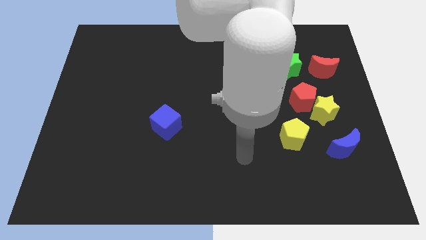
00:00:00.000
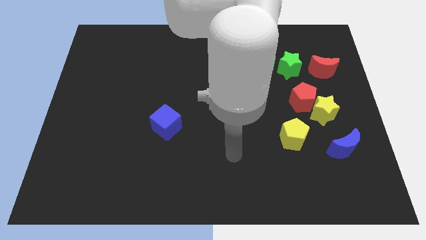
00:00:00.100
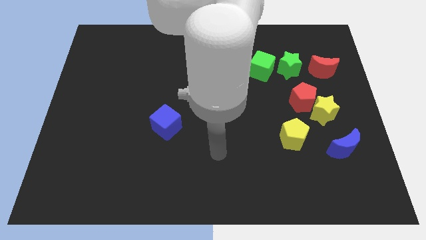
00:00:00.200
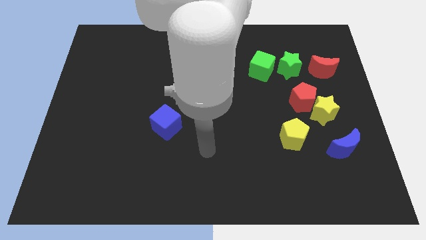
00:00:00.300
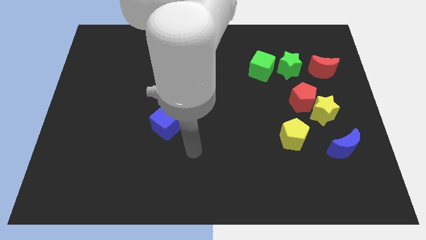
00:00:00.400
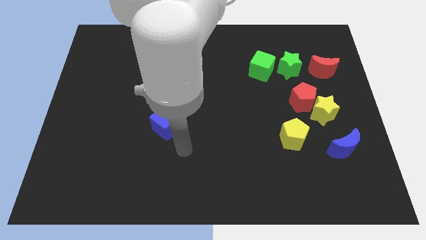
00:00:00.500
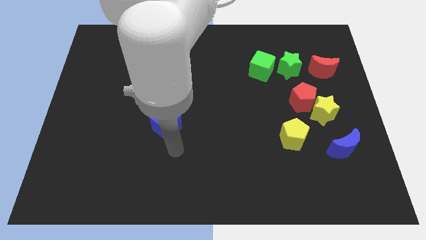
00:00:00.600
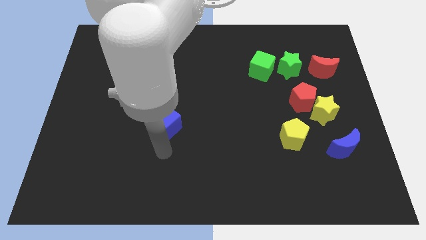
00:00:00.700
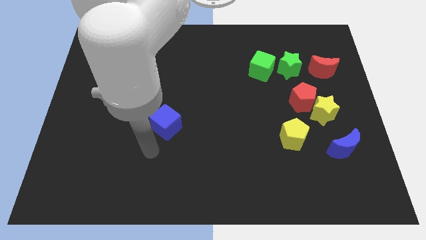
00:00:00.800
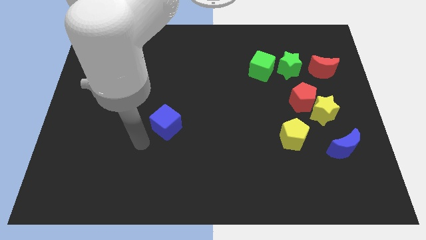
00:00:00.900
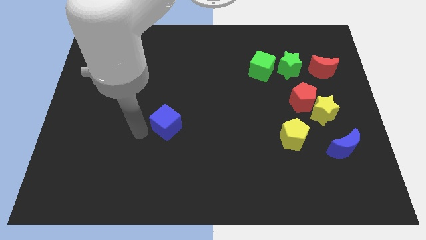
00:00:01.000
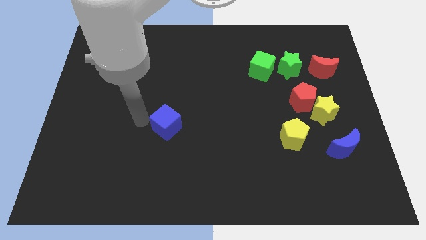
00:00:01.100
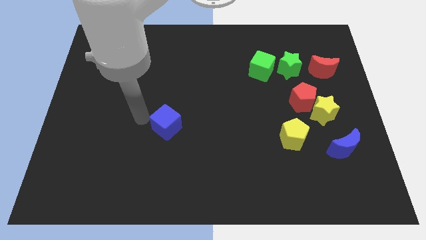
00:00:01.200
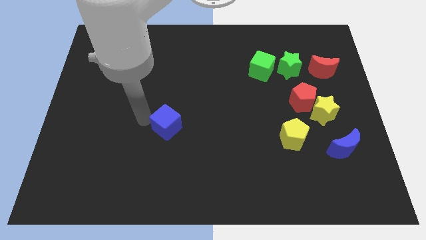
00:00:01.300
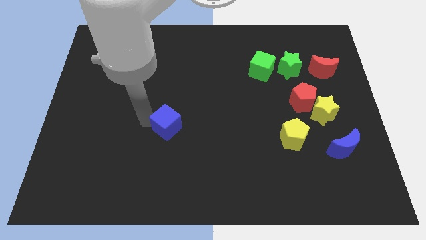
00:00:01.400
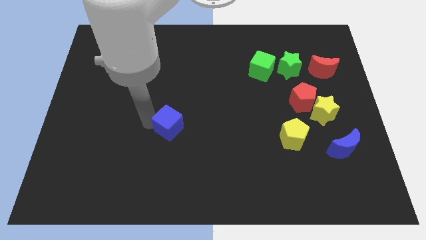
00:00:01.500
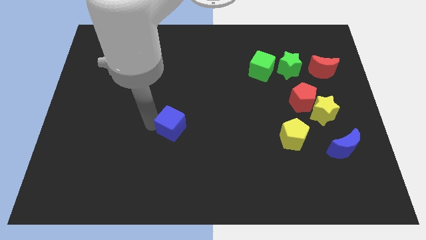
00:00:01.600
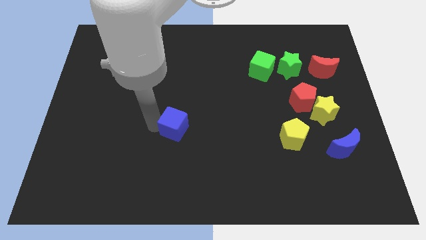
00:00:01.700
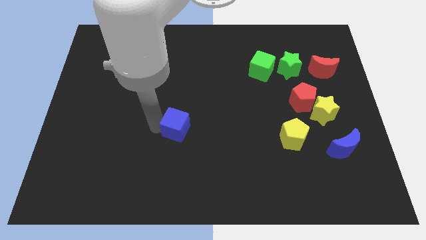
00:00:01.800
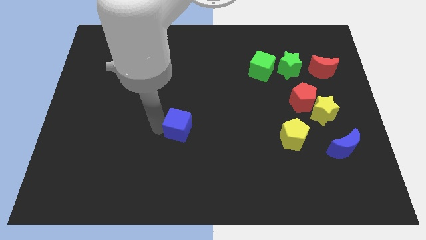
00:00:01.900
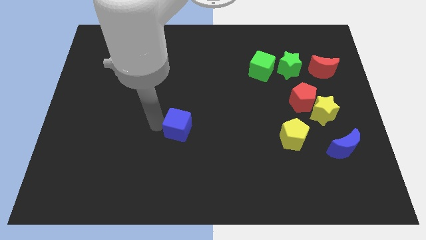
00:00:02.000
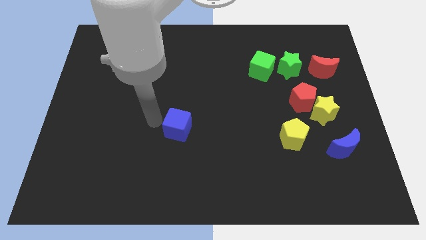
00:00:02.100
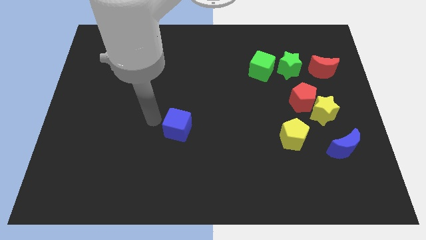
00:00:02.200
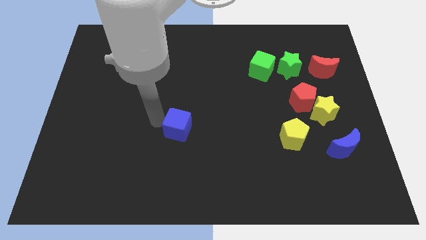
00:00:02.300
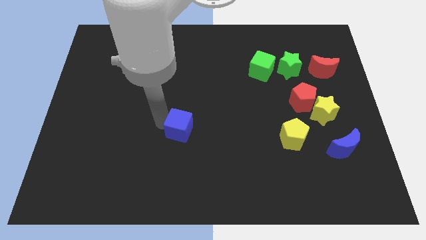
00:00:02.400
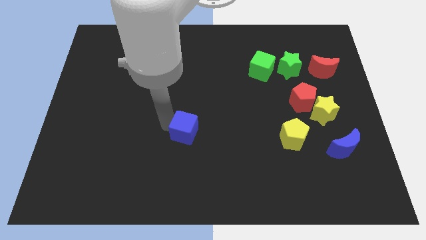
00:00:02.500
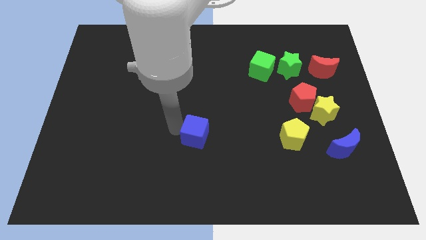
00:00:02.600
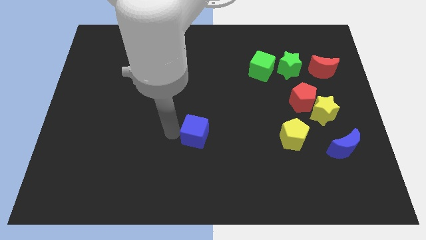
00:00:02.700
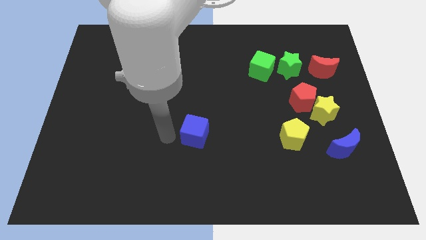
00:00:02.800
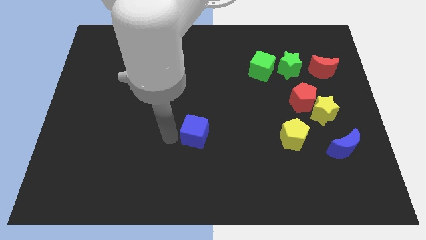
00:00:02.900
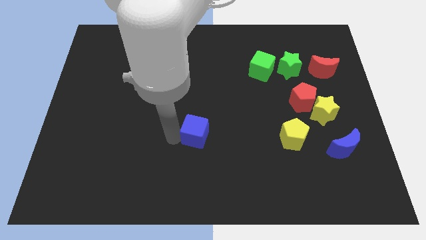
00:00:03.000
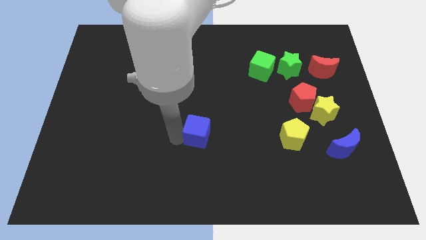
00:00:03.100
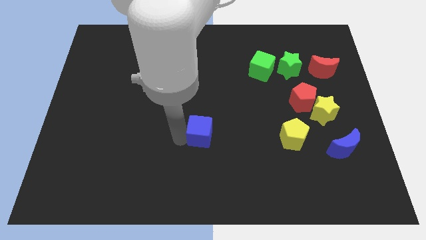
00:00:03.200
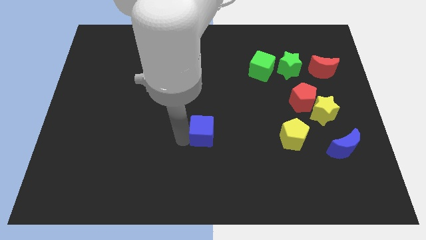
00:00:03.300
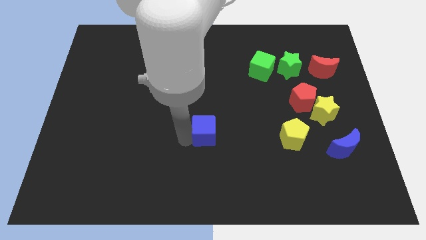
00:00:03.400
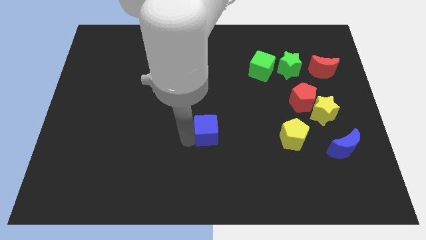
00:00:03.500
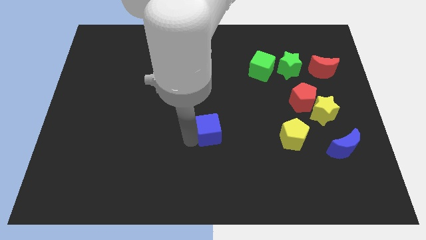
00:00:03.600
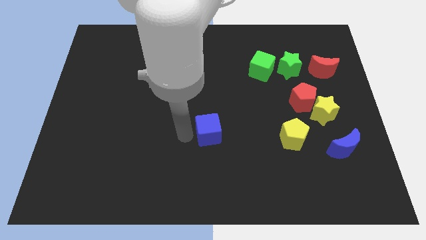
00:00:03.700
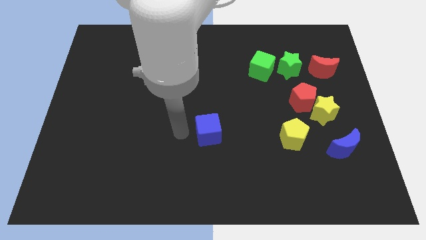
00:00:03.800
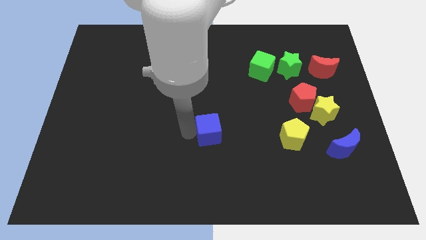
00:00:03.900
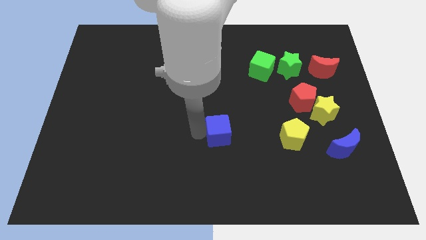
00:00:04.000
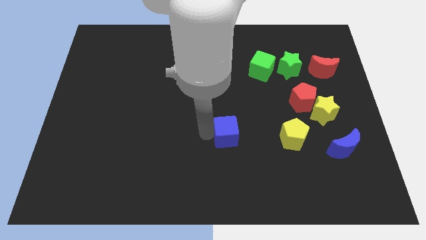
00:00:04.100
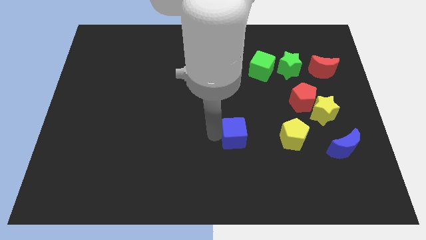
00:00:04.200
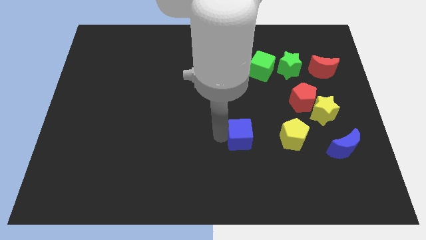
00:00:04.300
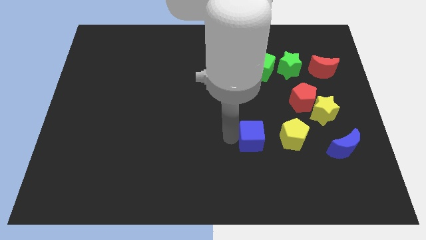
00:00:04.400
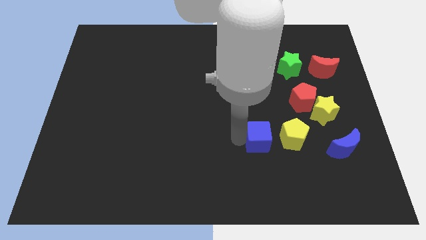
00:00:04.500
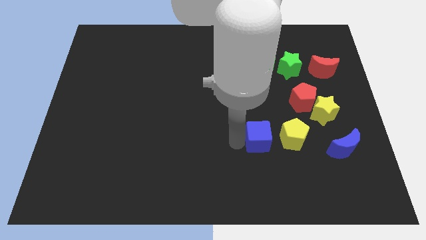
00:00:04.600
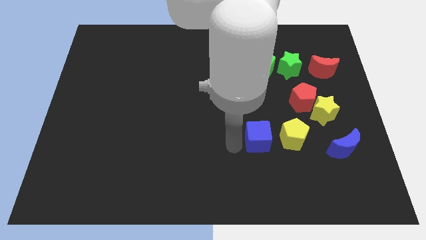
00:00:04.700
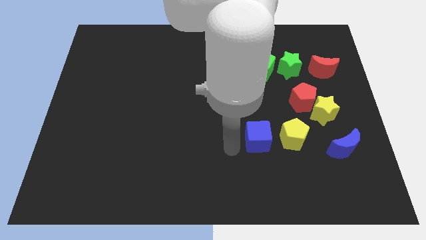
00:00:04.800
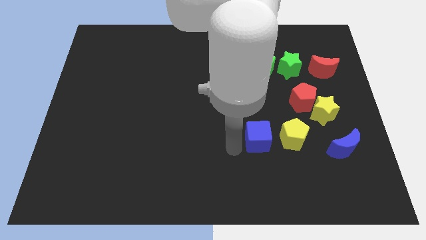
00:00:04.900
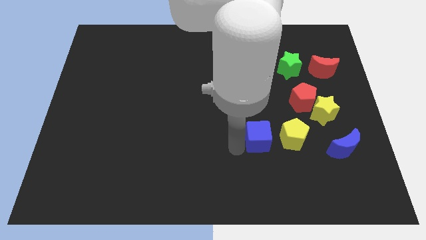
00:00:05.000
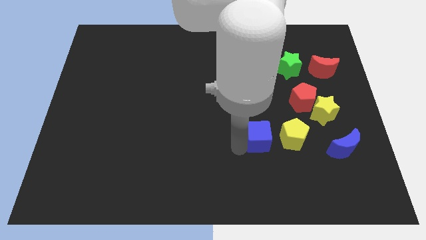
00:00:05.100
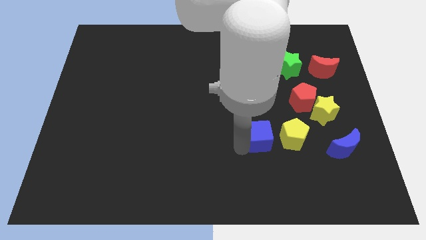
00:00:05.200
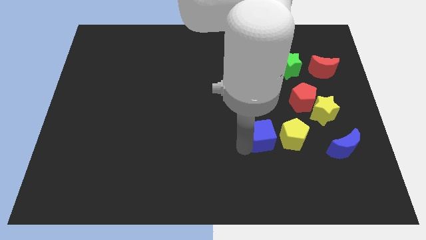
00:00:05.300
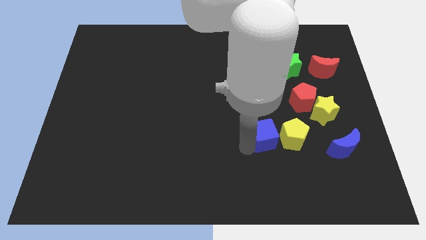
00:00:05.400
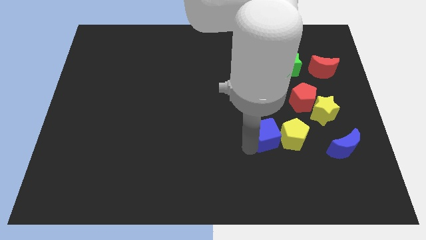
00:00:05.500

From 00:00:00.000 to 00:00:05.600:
put the blue cube to the yellow pentagon

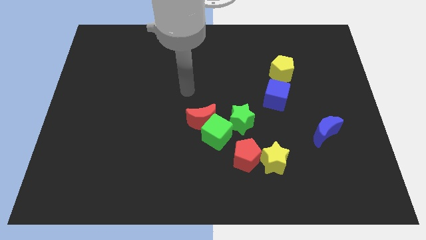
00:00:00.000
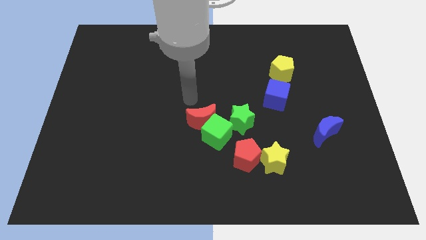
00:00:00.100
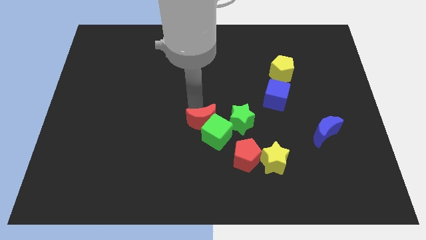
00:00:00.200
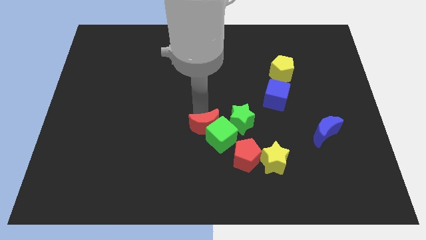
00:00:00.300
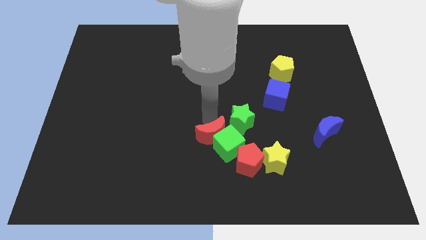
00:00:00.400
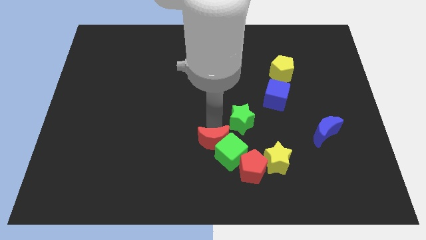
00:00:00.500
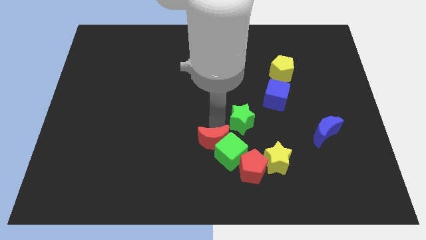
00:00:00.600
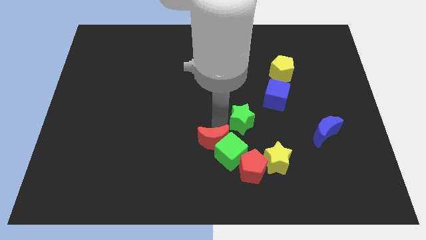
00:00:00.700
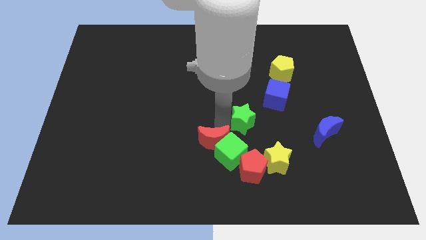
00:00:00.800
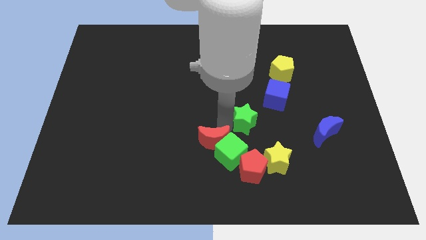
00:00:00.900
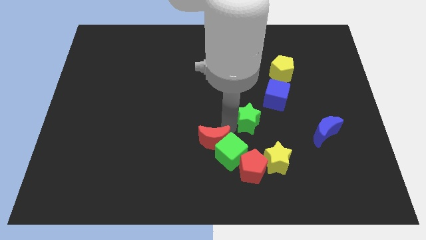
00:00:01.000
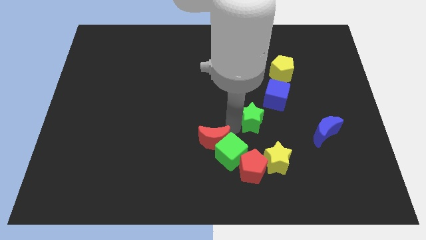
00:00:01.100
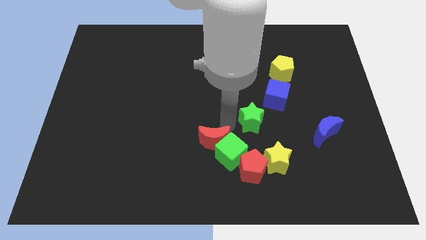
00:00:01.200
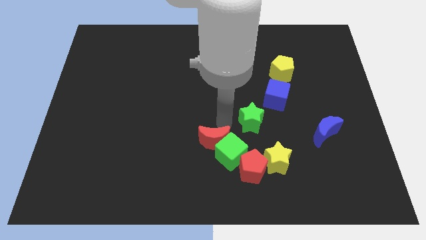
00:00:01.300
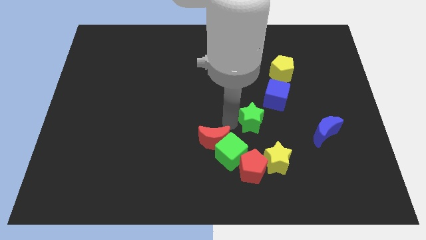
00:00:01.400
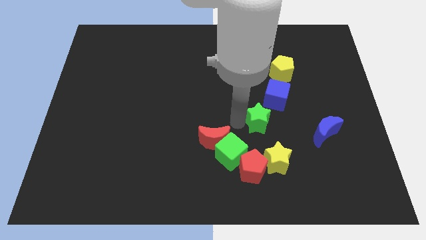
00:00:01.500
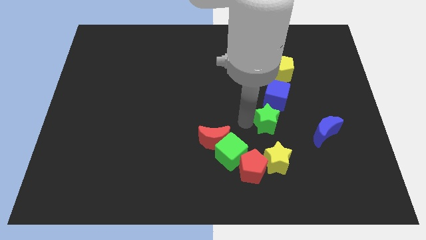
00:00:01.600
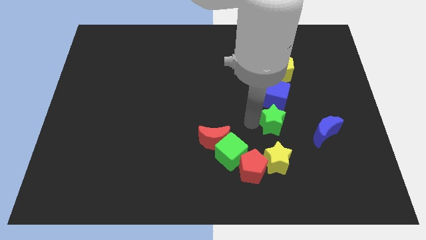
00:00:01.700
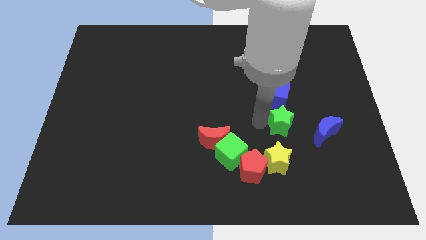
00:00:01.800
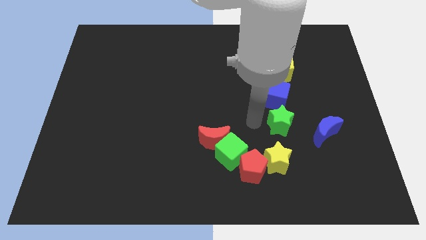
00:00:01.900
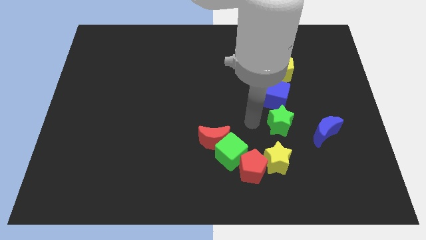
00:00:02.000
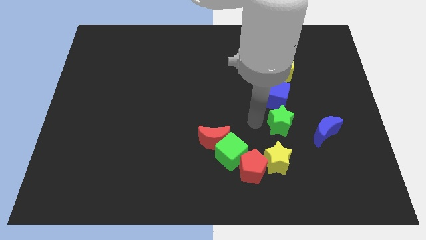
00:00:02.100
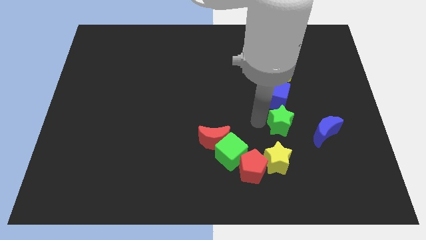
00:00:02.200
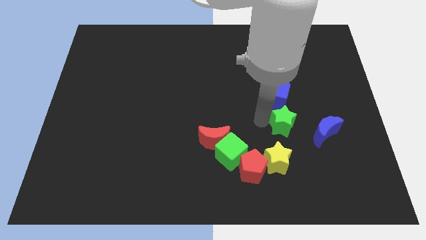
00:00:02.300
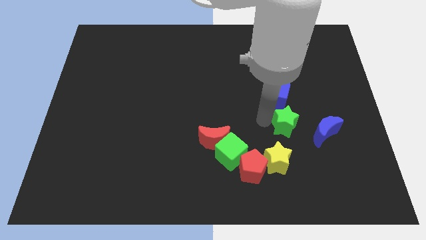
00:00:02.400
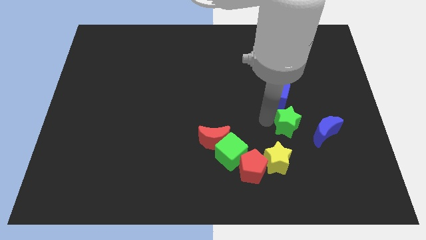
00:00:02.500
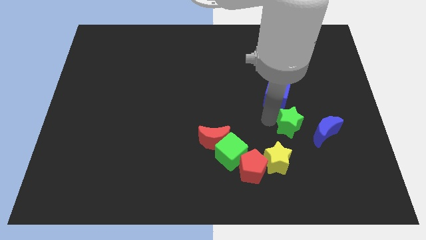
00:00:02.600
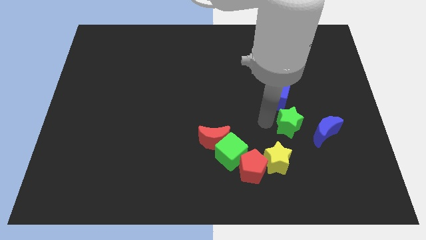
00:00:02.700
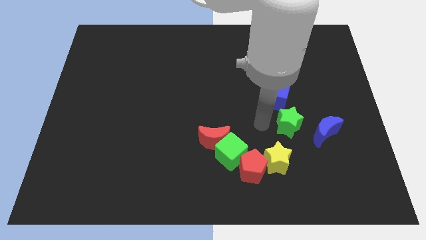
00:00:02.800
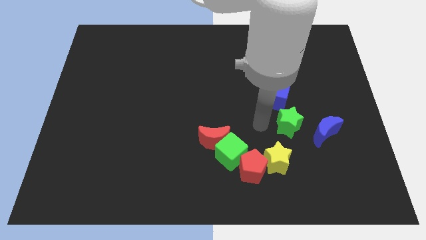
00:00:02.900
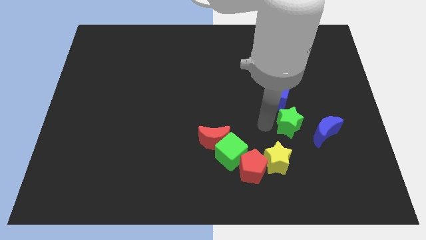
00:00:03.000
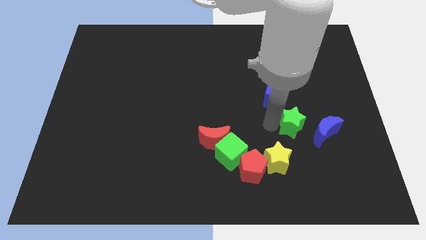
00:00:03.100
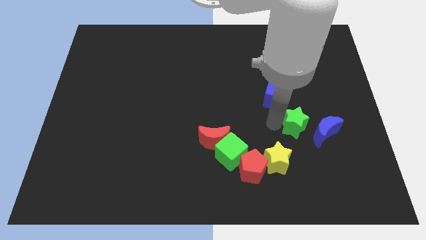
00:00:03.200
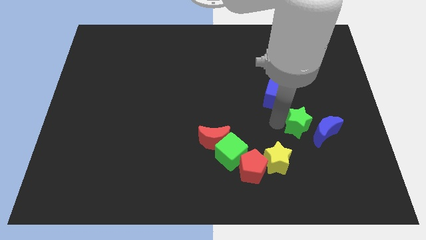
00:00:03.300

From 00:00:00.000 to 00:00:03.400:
move the green star close to the blue moon
